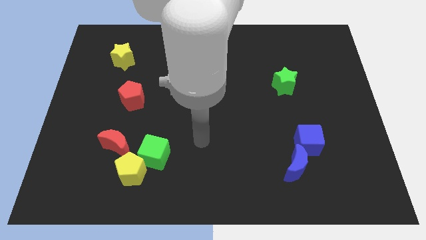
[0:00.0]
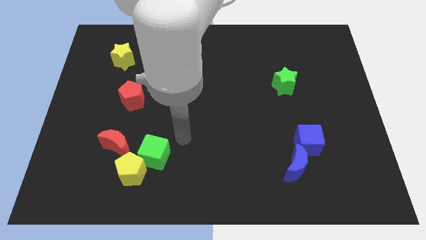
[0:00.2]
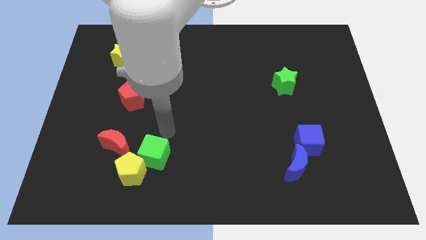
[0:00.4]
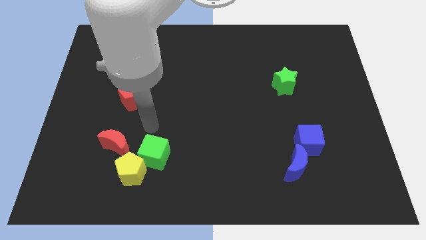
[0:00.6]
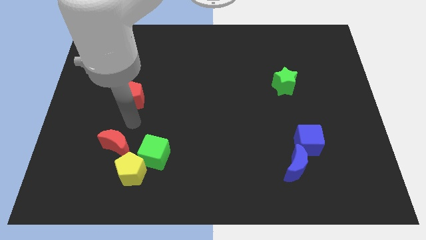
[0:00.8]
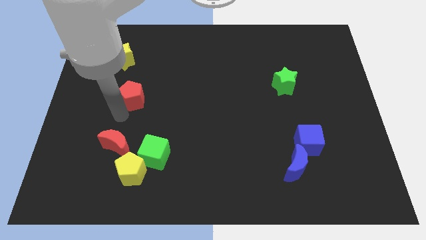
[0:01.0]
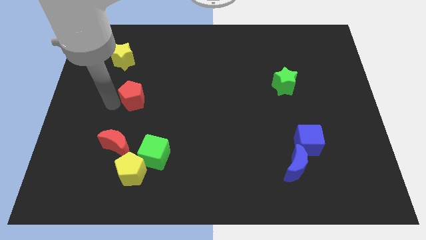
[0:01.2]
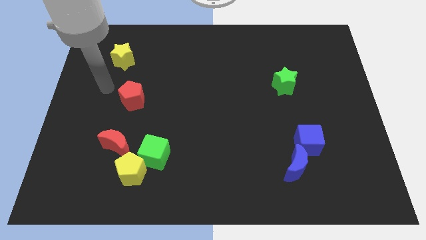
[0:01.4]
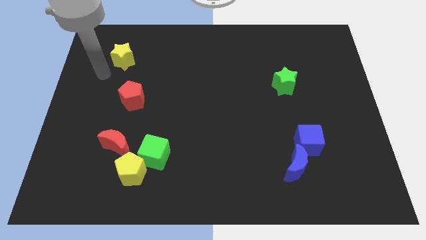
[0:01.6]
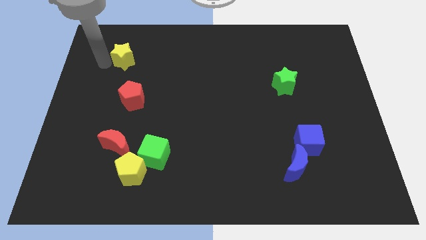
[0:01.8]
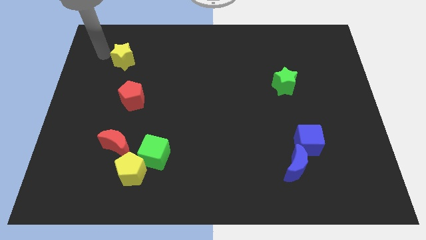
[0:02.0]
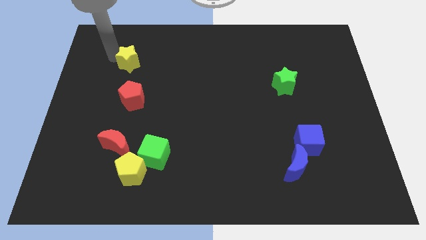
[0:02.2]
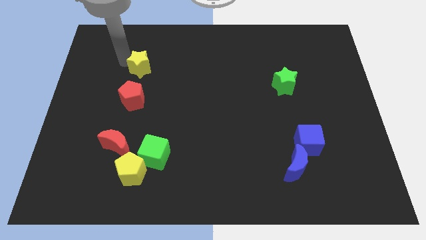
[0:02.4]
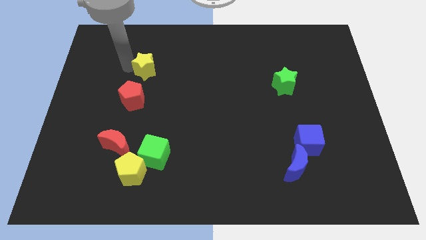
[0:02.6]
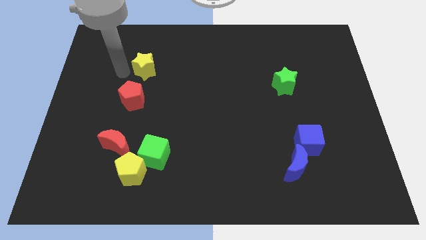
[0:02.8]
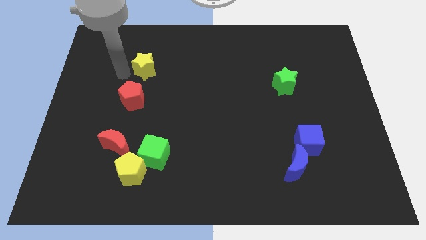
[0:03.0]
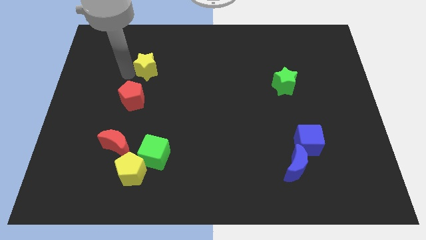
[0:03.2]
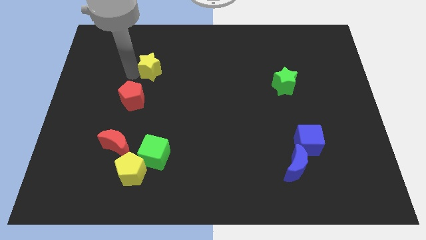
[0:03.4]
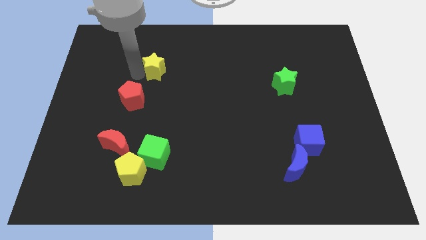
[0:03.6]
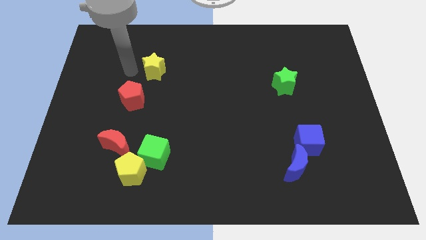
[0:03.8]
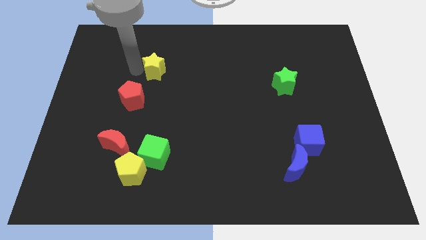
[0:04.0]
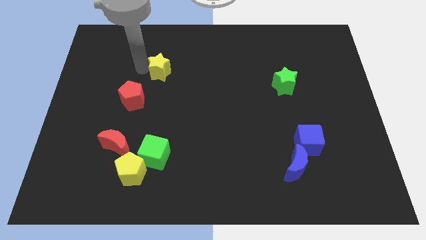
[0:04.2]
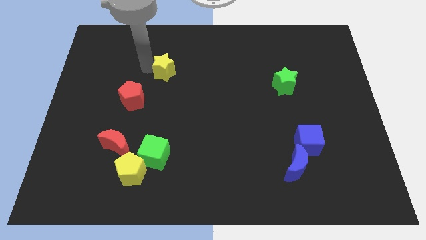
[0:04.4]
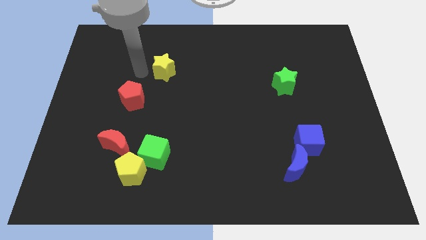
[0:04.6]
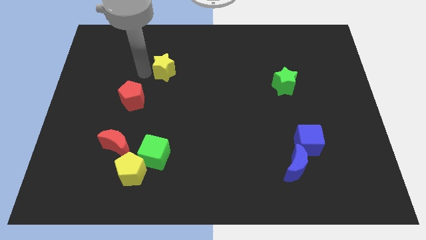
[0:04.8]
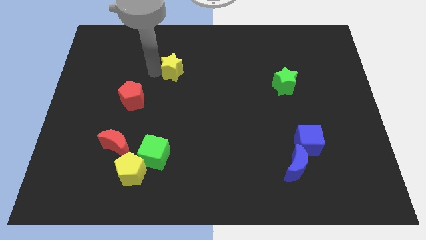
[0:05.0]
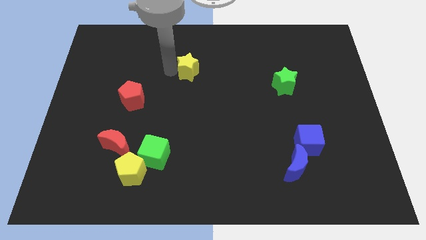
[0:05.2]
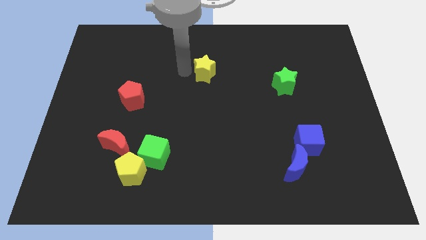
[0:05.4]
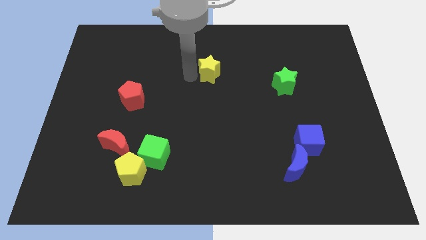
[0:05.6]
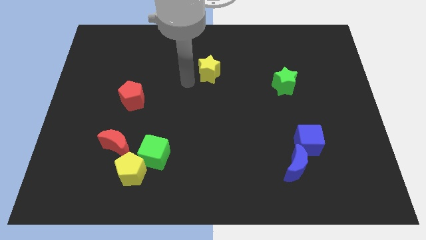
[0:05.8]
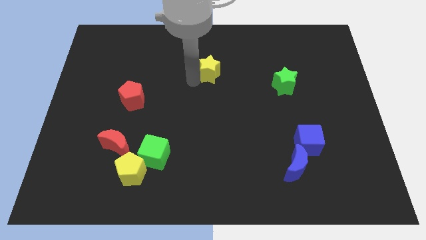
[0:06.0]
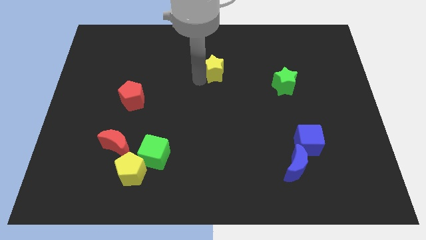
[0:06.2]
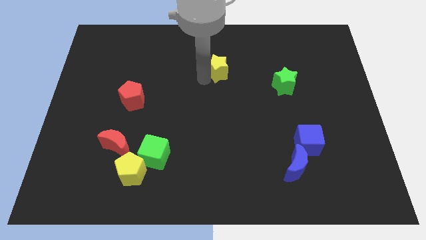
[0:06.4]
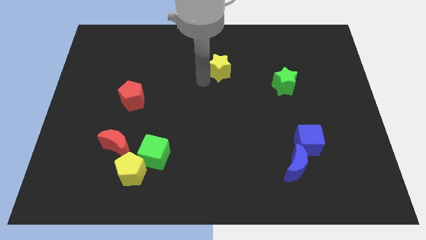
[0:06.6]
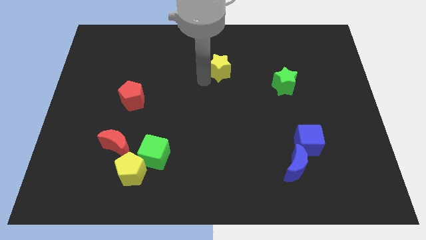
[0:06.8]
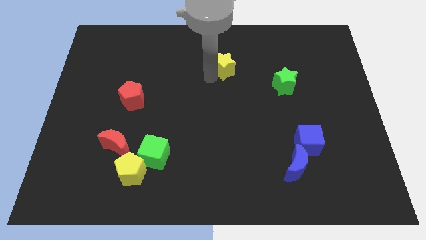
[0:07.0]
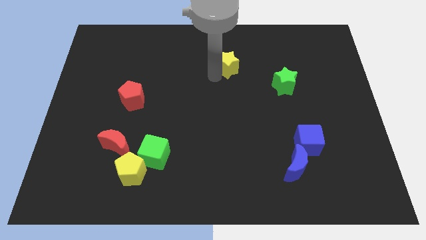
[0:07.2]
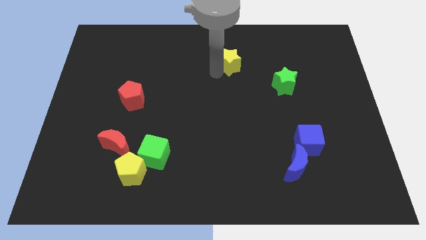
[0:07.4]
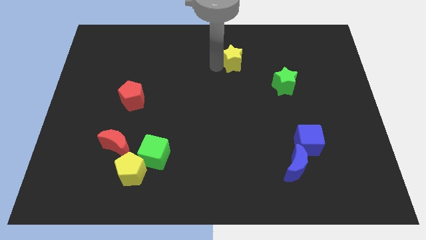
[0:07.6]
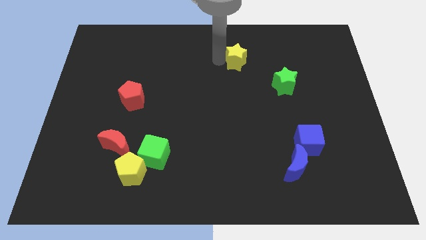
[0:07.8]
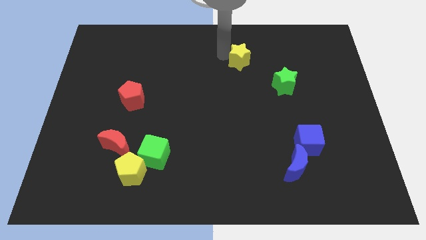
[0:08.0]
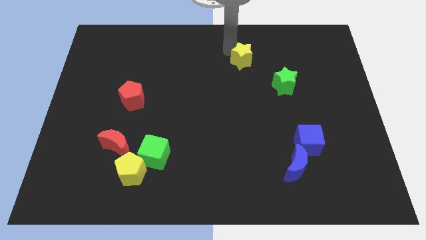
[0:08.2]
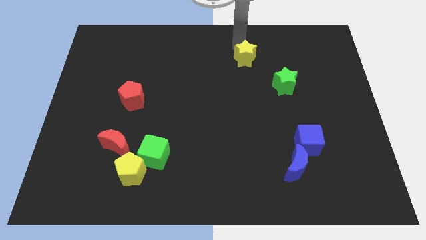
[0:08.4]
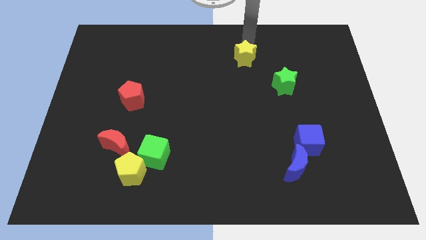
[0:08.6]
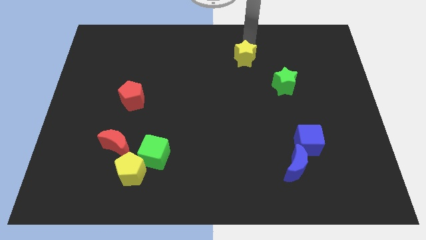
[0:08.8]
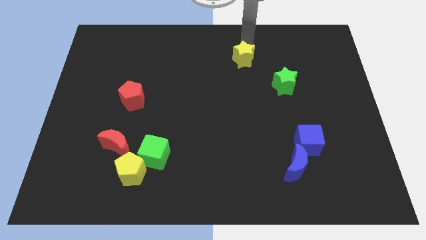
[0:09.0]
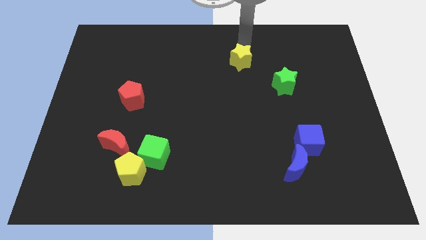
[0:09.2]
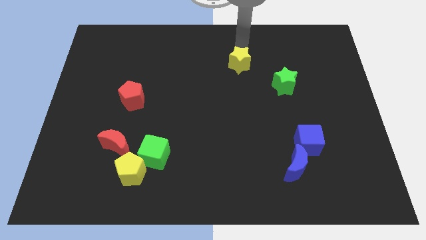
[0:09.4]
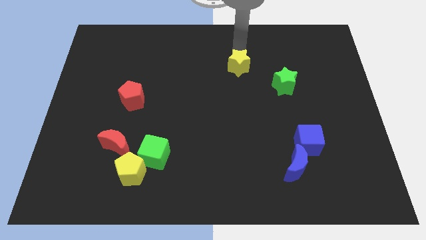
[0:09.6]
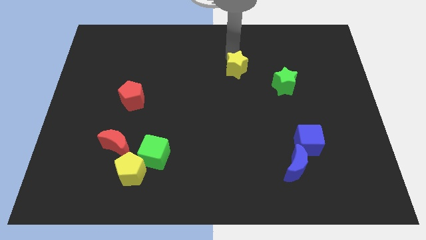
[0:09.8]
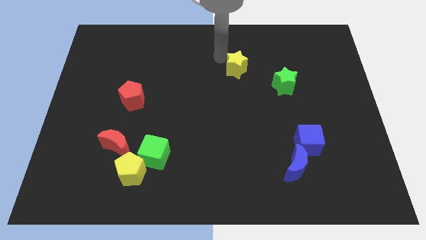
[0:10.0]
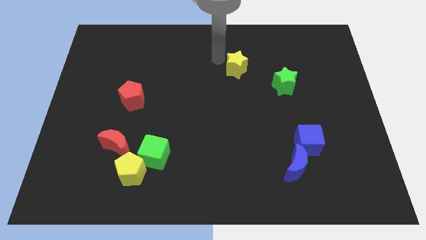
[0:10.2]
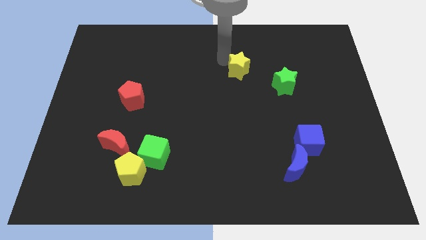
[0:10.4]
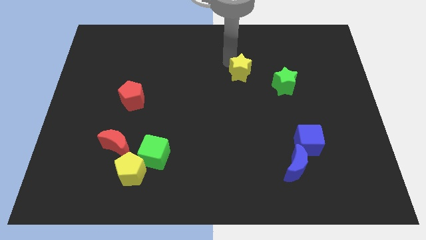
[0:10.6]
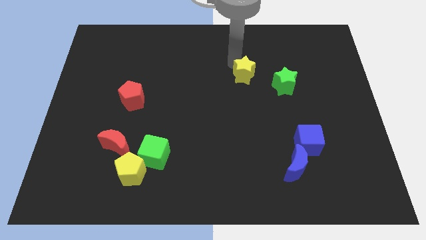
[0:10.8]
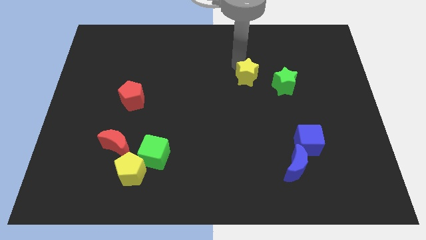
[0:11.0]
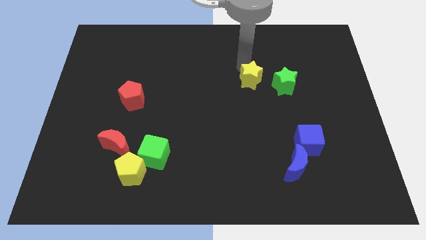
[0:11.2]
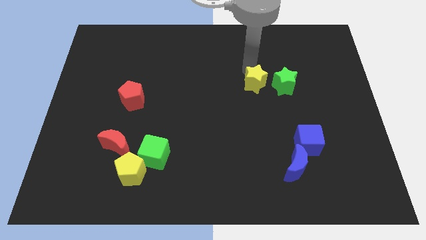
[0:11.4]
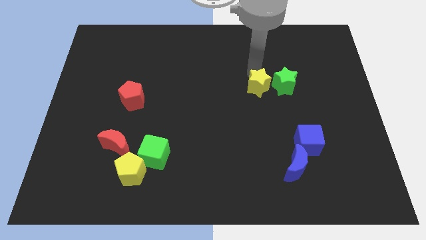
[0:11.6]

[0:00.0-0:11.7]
put the yellow star towards the green star

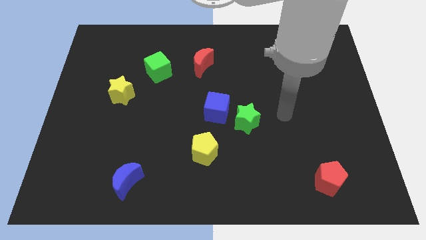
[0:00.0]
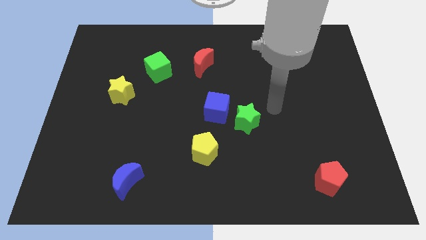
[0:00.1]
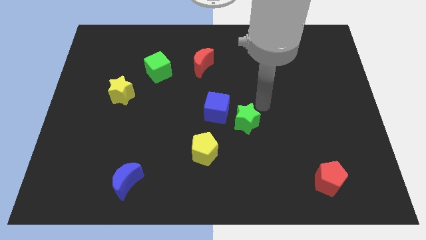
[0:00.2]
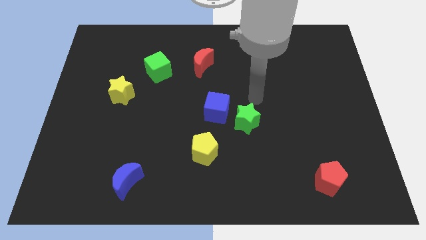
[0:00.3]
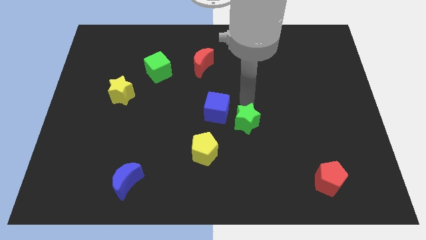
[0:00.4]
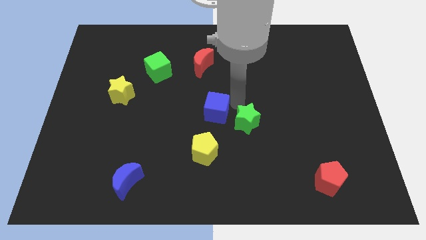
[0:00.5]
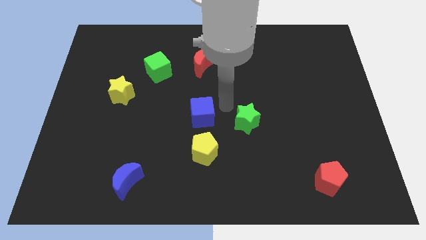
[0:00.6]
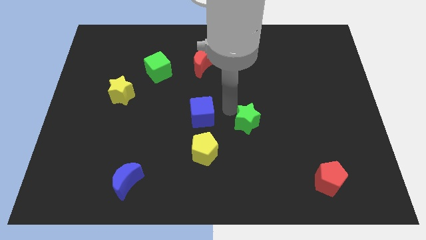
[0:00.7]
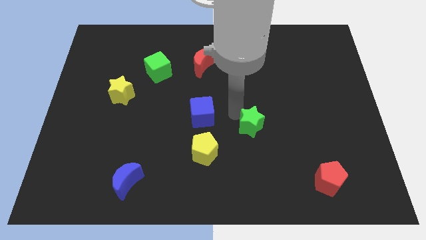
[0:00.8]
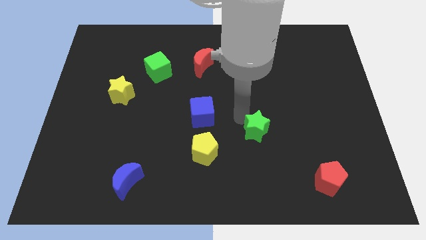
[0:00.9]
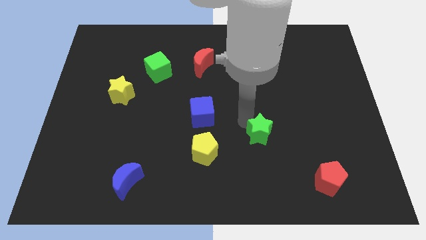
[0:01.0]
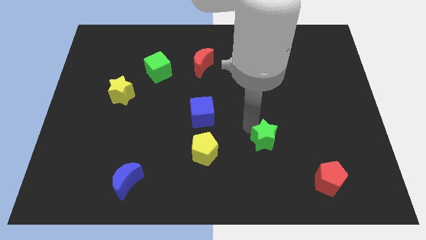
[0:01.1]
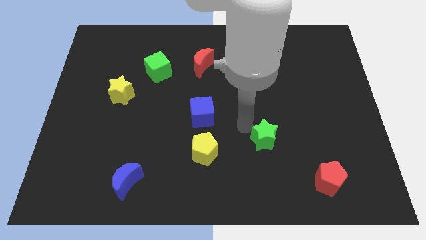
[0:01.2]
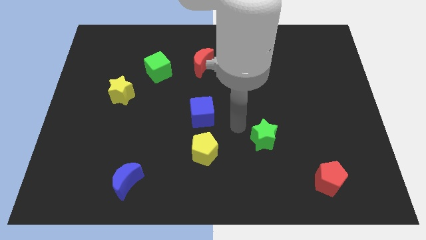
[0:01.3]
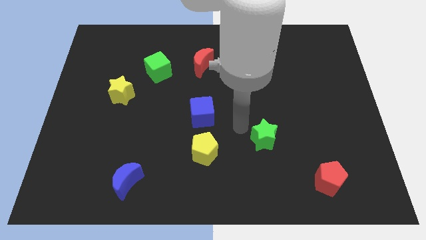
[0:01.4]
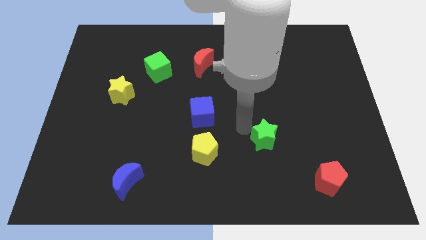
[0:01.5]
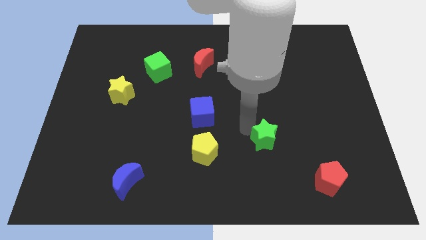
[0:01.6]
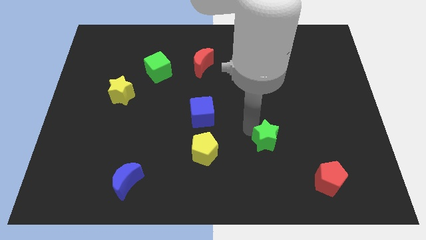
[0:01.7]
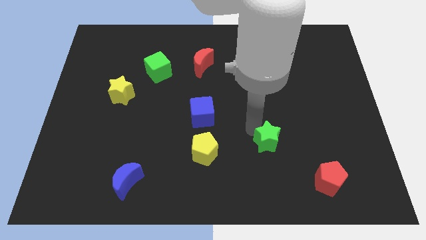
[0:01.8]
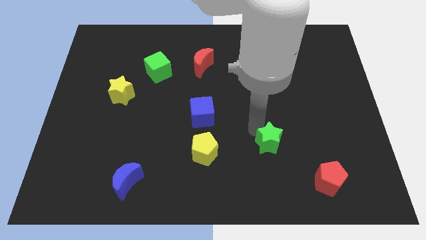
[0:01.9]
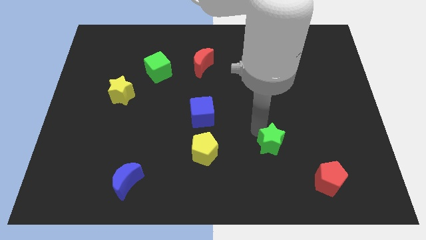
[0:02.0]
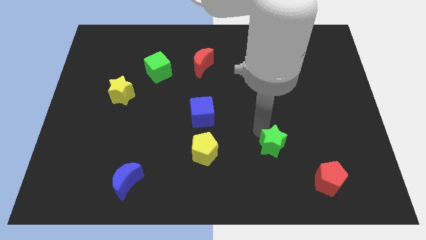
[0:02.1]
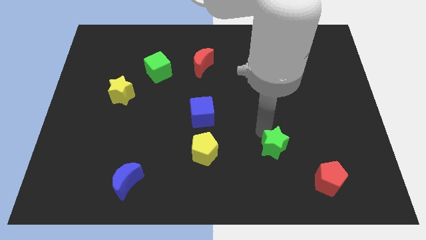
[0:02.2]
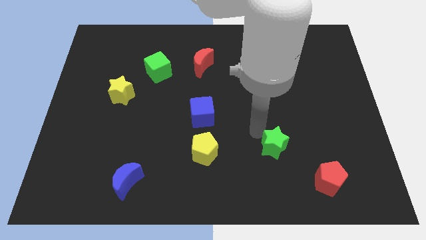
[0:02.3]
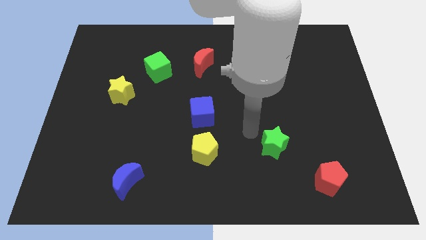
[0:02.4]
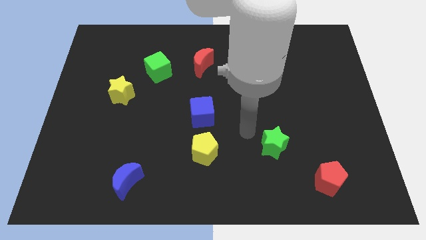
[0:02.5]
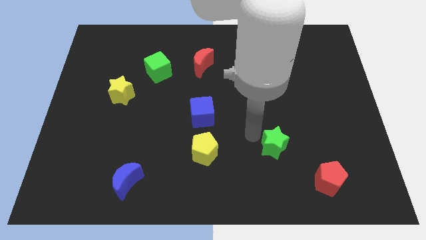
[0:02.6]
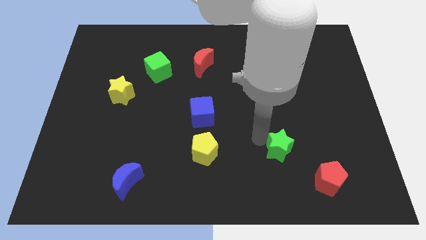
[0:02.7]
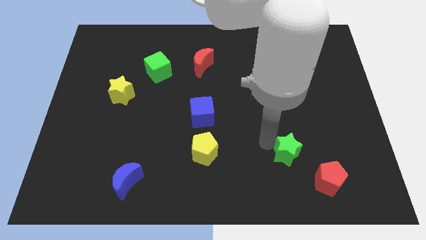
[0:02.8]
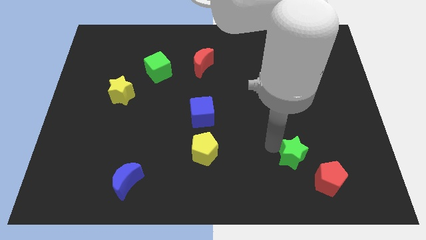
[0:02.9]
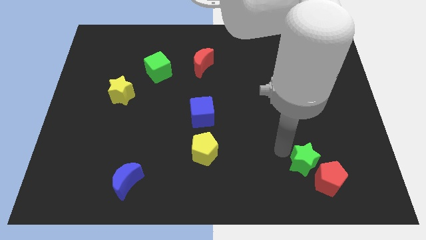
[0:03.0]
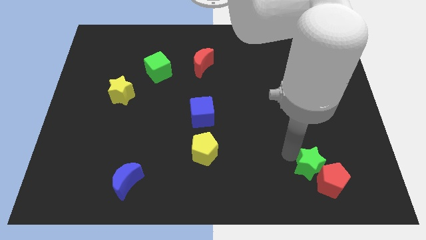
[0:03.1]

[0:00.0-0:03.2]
put the green star close to the red pentagon
